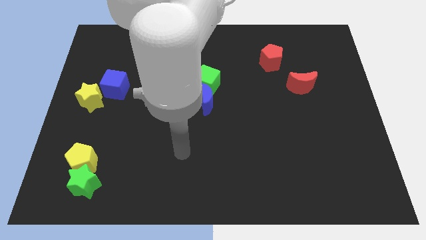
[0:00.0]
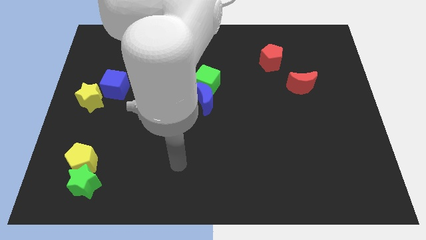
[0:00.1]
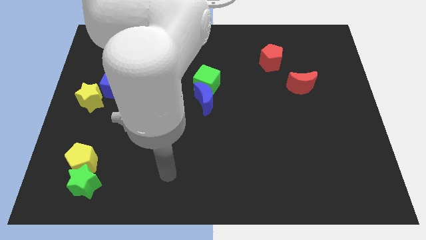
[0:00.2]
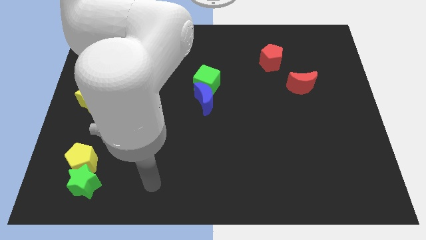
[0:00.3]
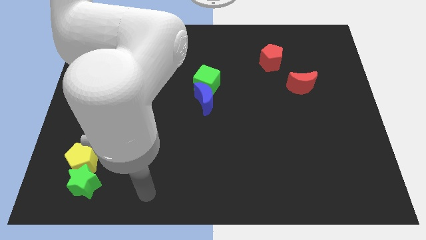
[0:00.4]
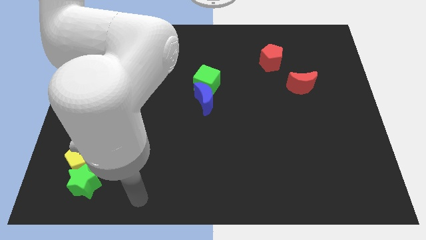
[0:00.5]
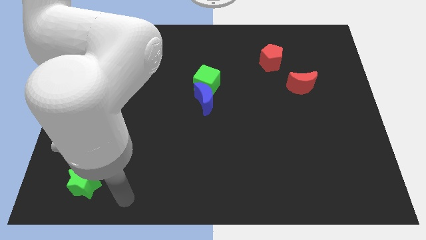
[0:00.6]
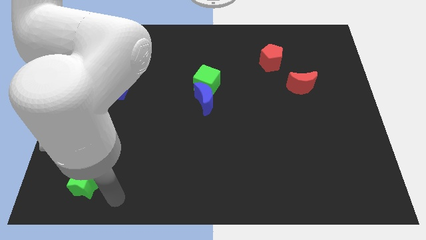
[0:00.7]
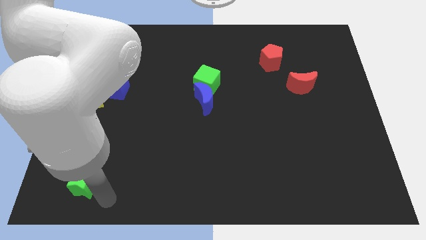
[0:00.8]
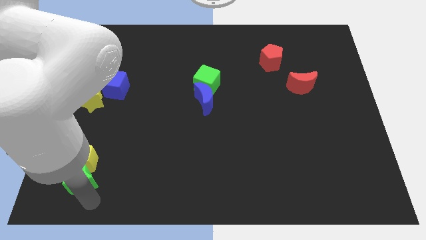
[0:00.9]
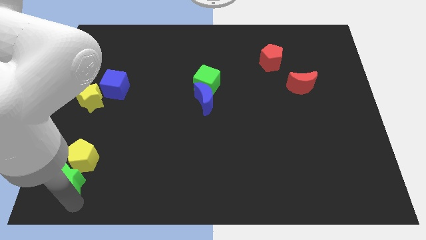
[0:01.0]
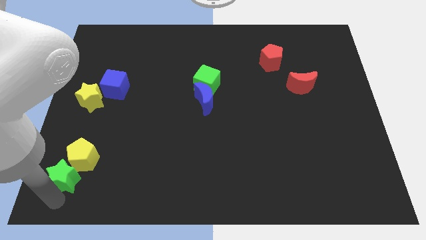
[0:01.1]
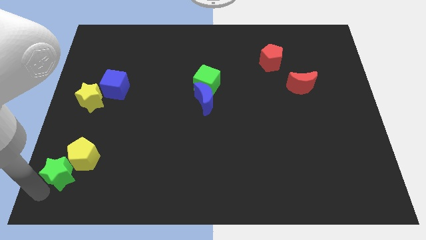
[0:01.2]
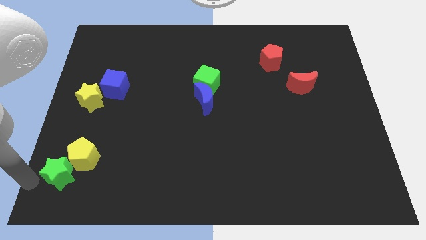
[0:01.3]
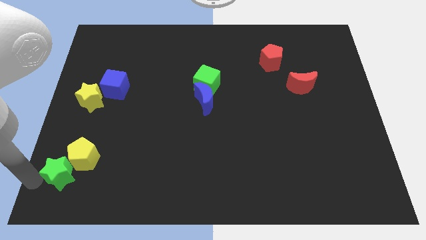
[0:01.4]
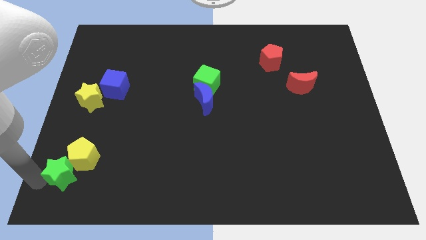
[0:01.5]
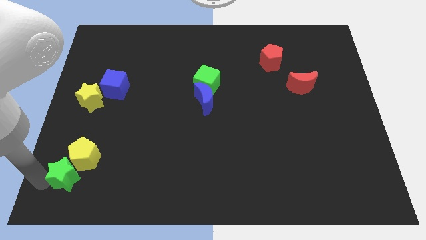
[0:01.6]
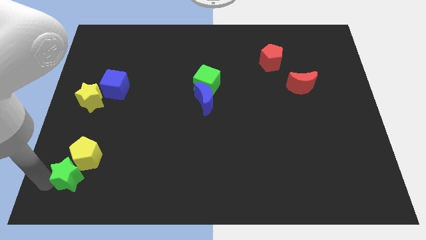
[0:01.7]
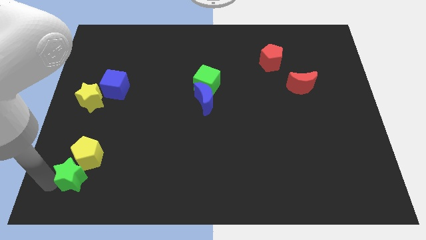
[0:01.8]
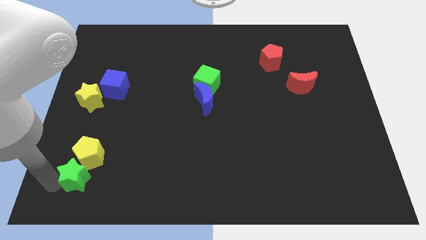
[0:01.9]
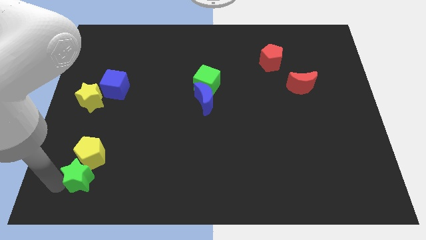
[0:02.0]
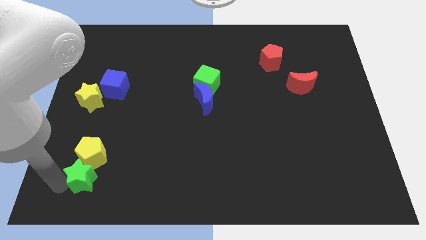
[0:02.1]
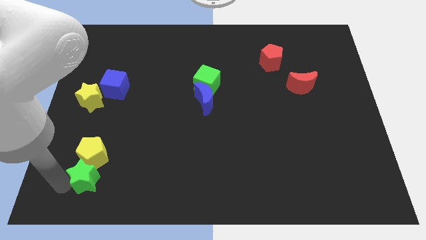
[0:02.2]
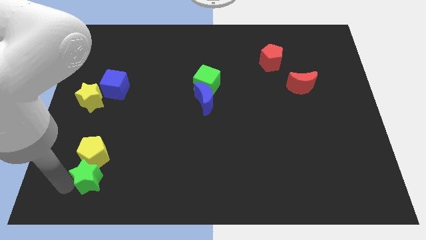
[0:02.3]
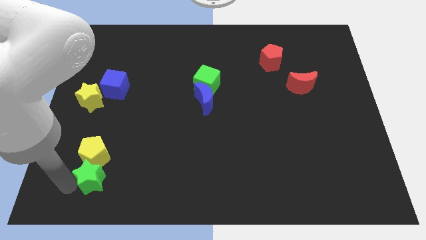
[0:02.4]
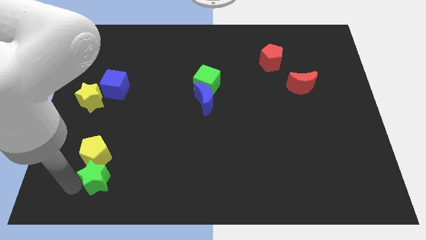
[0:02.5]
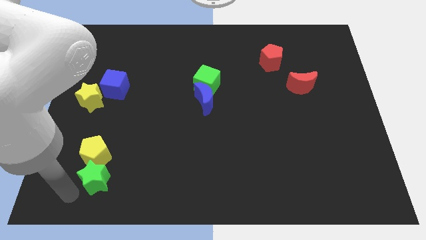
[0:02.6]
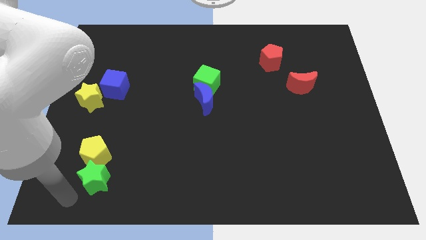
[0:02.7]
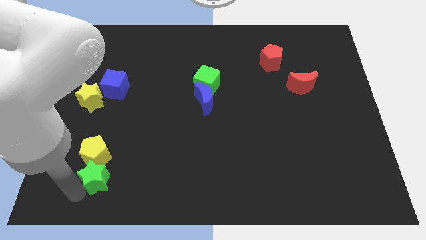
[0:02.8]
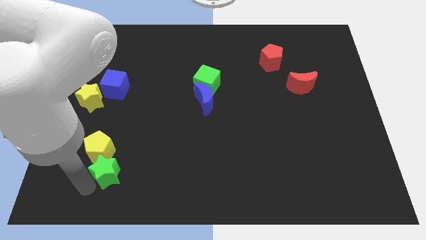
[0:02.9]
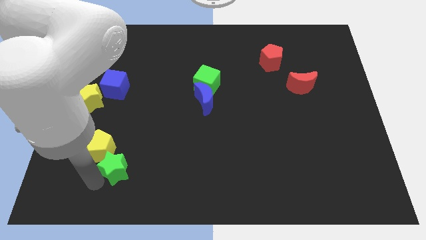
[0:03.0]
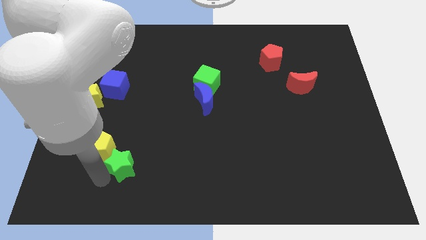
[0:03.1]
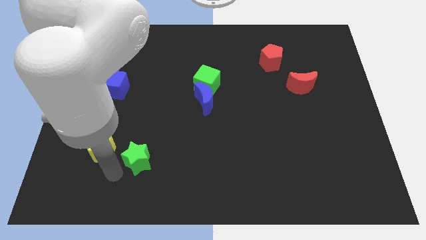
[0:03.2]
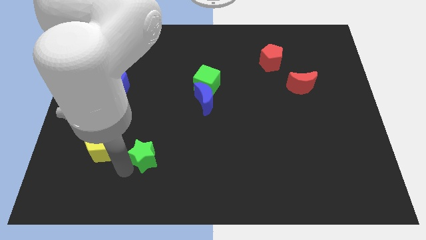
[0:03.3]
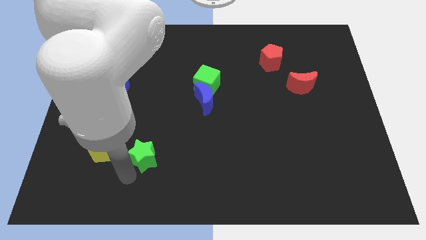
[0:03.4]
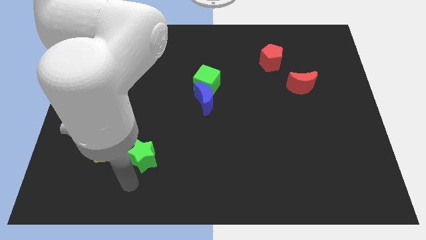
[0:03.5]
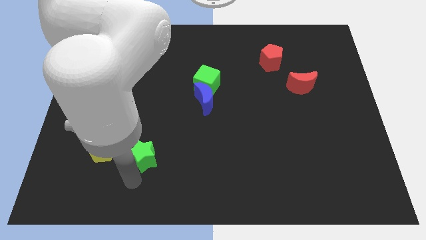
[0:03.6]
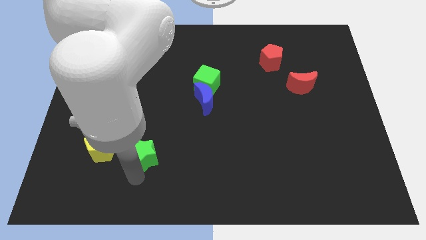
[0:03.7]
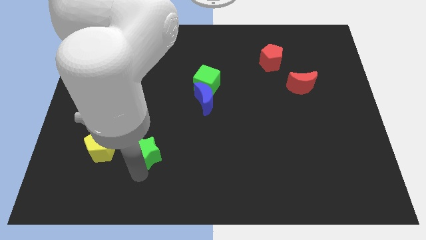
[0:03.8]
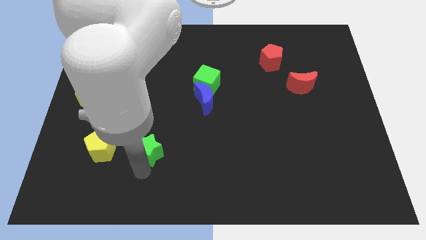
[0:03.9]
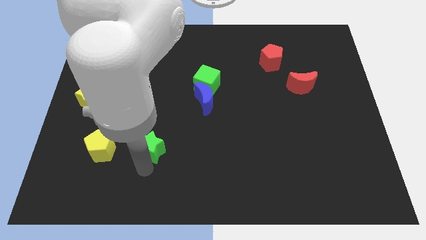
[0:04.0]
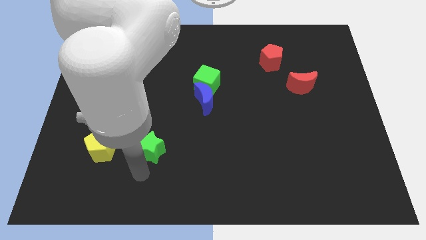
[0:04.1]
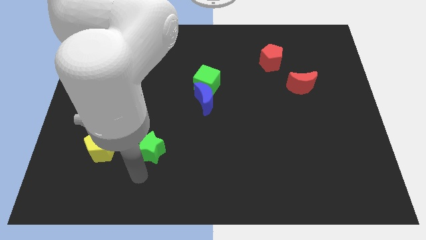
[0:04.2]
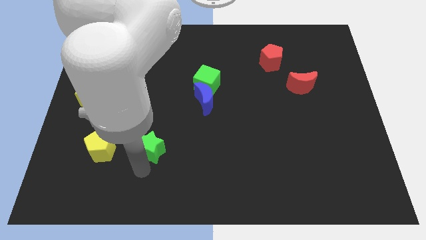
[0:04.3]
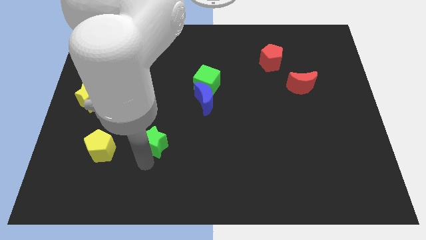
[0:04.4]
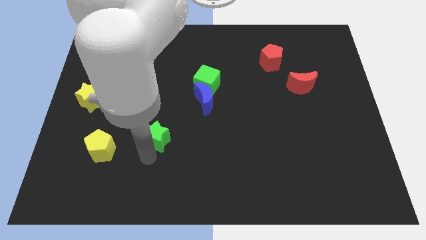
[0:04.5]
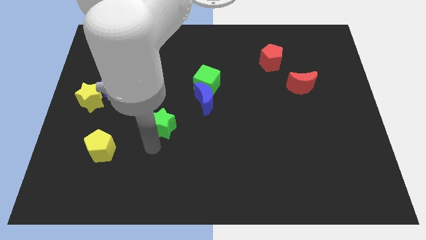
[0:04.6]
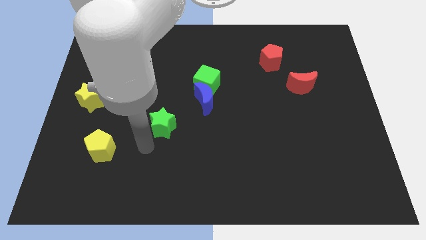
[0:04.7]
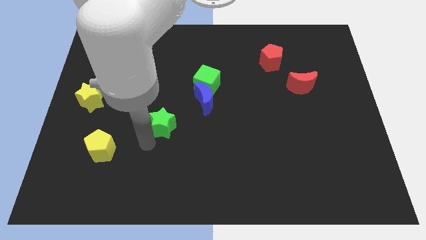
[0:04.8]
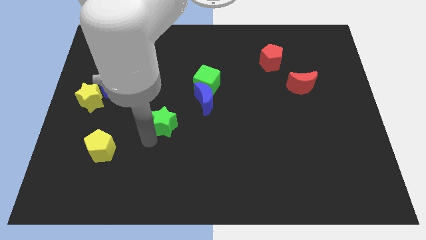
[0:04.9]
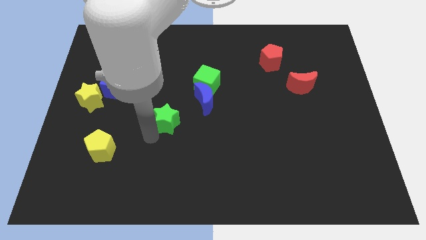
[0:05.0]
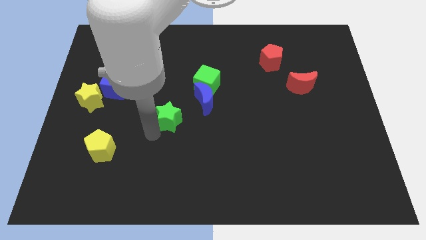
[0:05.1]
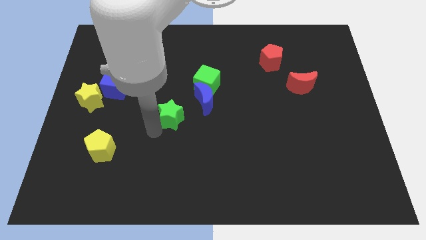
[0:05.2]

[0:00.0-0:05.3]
put the green star diagonally down and to the left of the green cube

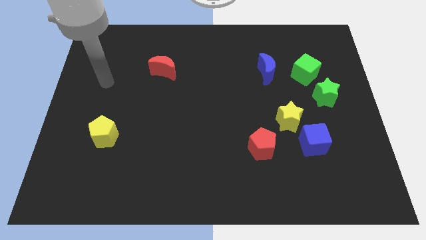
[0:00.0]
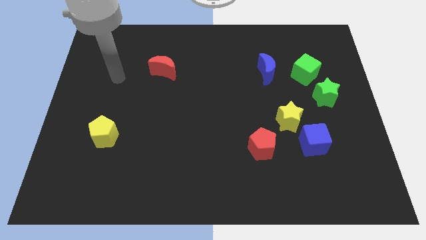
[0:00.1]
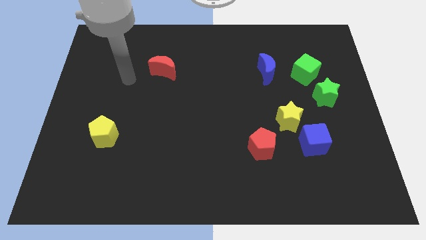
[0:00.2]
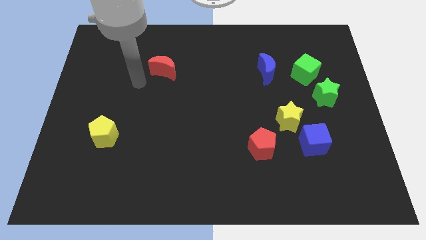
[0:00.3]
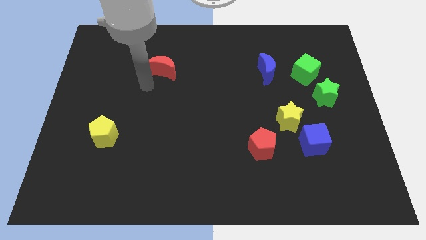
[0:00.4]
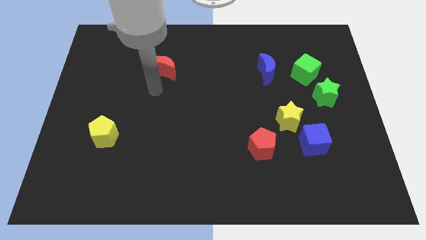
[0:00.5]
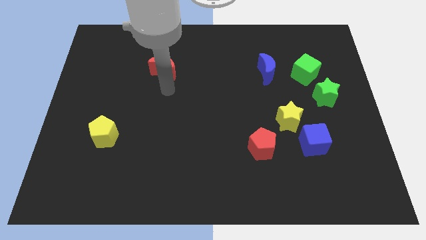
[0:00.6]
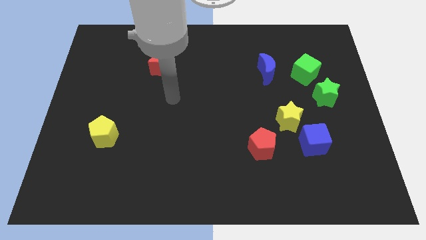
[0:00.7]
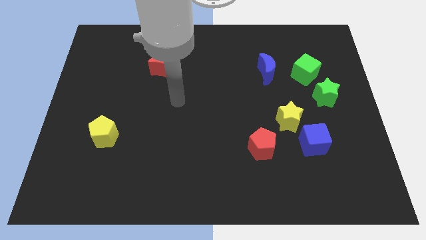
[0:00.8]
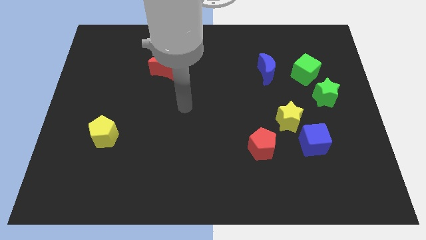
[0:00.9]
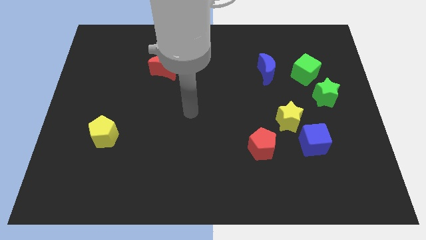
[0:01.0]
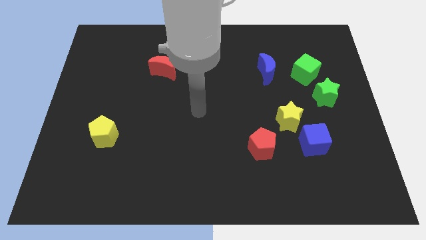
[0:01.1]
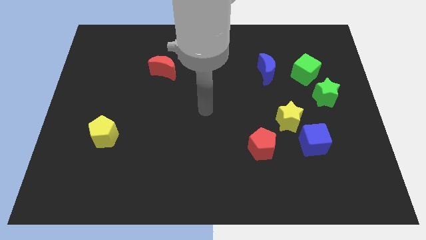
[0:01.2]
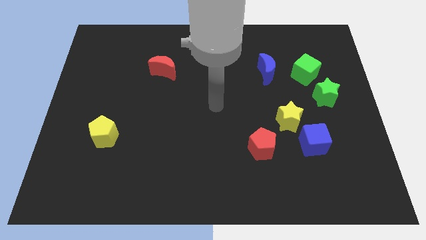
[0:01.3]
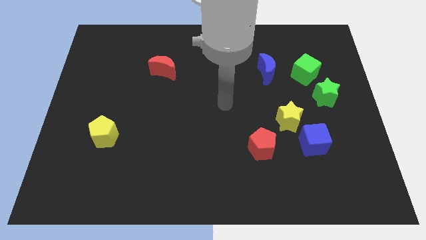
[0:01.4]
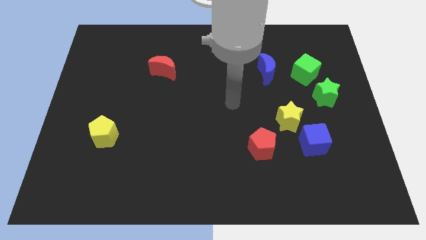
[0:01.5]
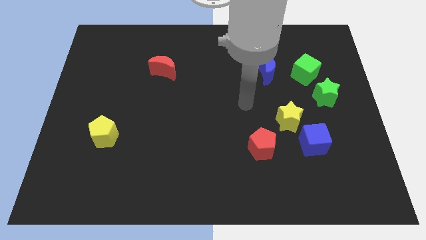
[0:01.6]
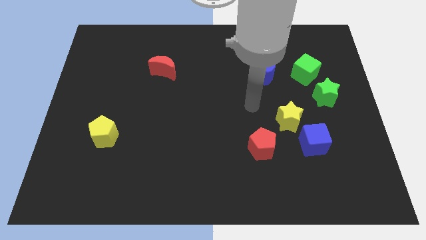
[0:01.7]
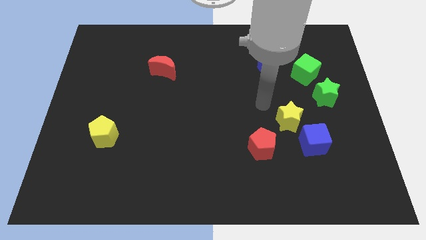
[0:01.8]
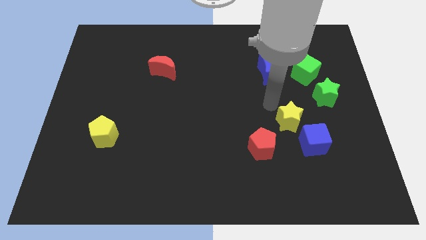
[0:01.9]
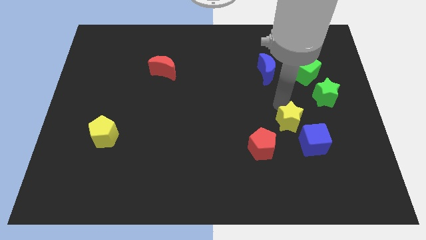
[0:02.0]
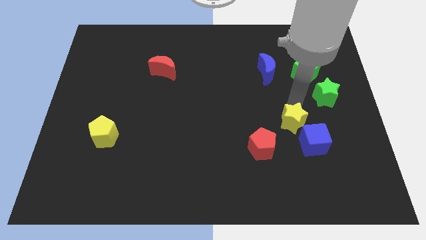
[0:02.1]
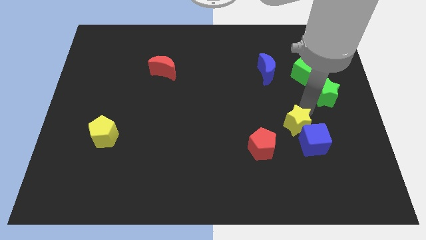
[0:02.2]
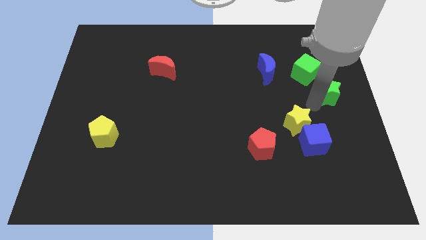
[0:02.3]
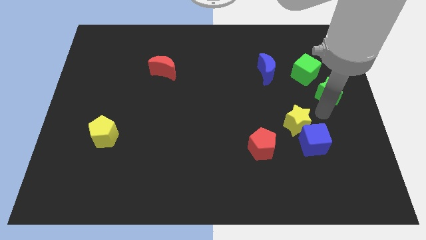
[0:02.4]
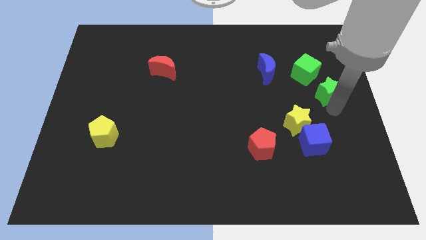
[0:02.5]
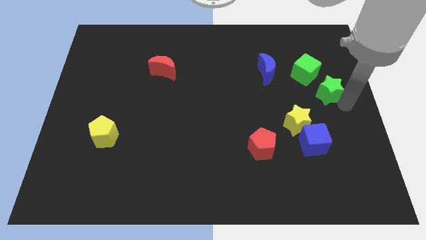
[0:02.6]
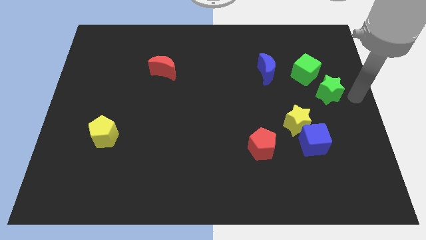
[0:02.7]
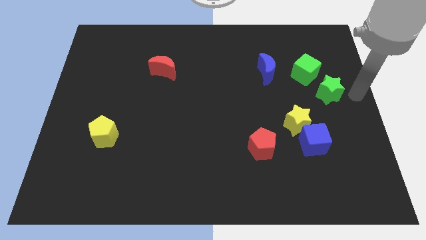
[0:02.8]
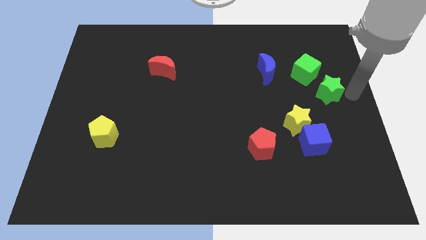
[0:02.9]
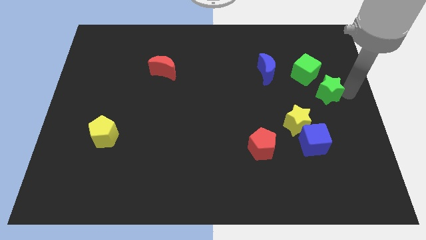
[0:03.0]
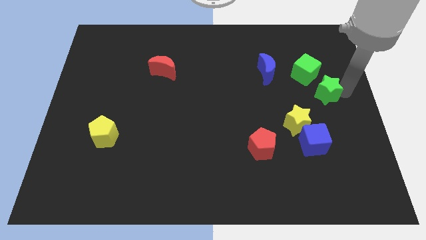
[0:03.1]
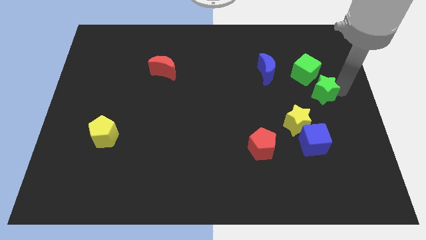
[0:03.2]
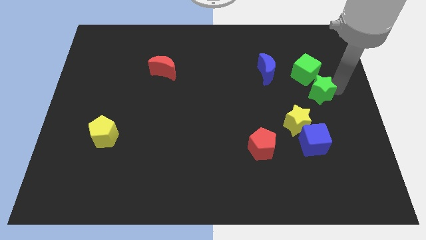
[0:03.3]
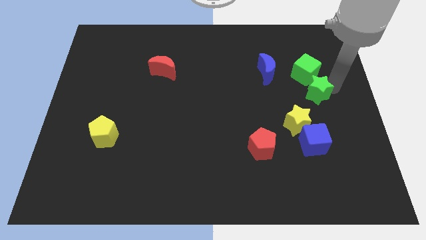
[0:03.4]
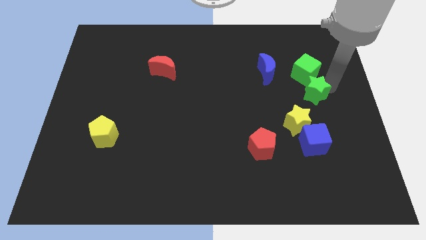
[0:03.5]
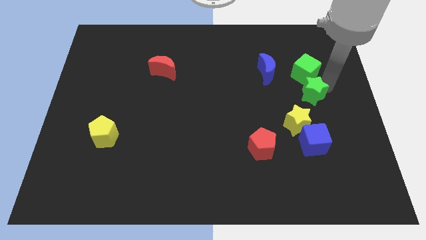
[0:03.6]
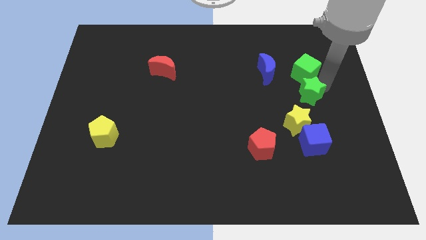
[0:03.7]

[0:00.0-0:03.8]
slide the green star to the bottom left of the green cube
